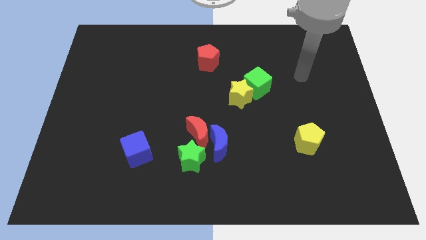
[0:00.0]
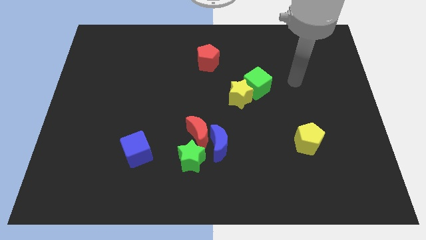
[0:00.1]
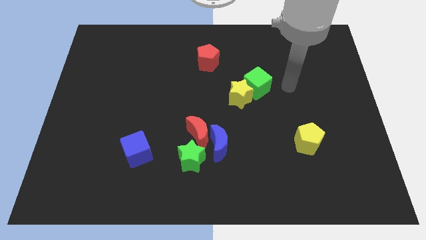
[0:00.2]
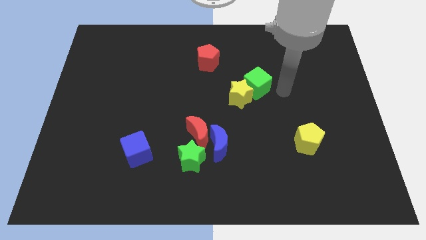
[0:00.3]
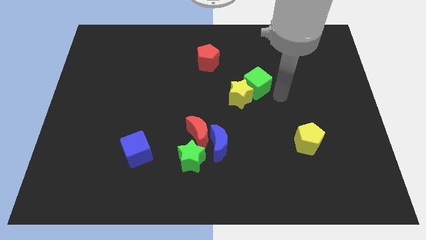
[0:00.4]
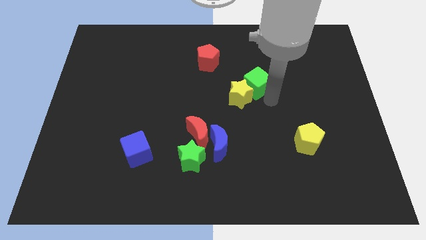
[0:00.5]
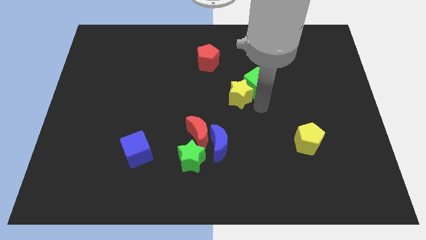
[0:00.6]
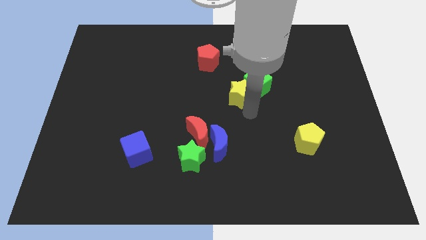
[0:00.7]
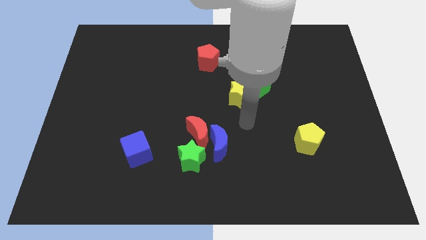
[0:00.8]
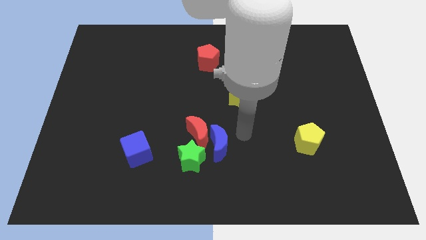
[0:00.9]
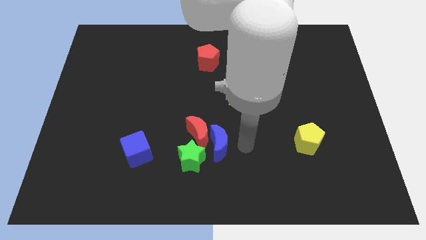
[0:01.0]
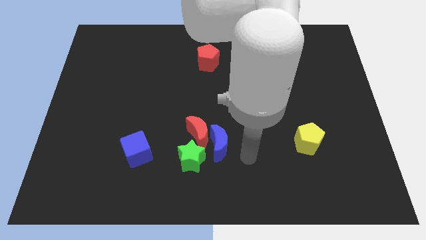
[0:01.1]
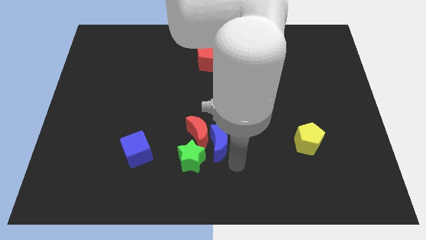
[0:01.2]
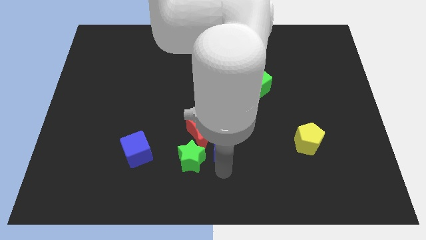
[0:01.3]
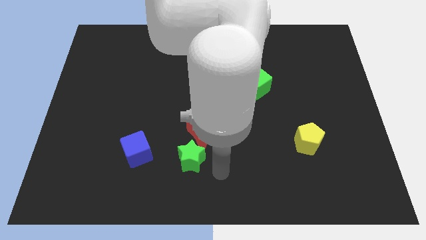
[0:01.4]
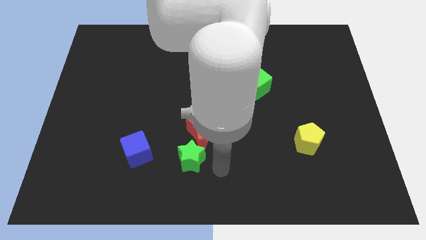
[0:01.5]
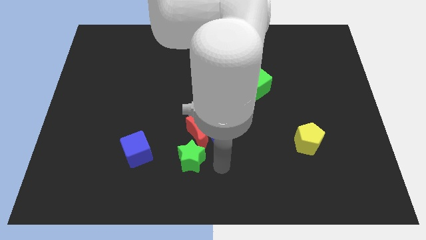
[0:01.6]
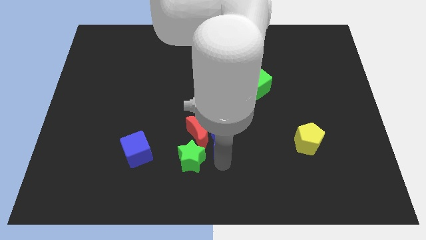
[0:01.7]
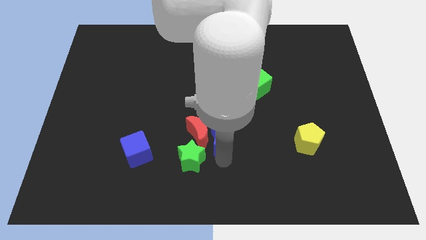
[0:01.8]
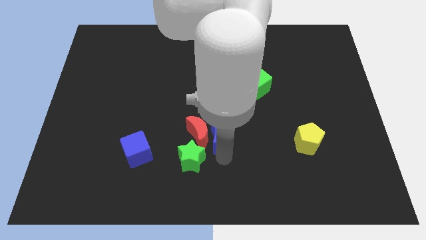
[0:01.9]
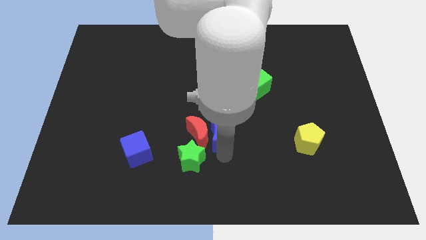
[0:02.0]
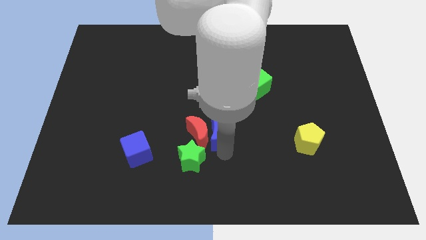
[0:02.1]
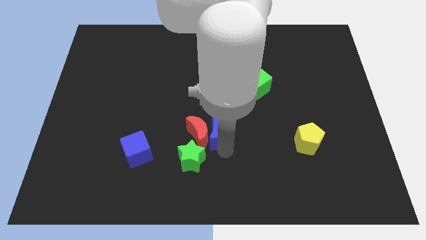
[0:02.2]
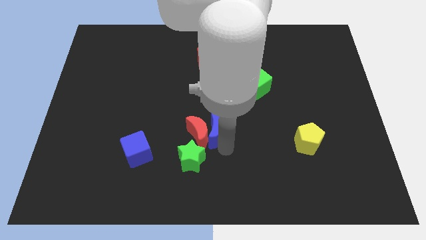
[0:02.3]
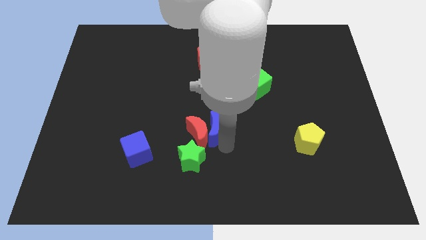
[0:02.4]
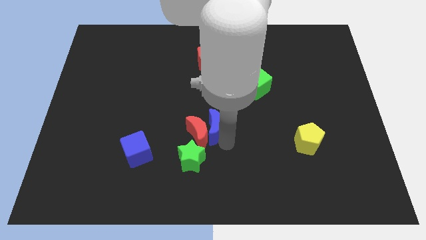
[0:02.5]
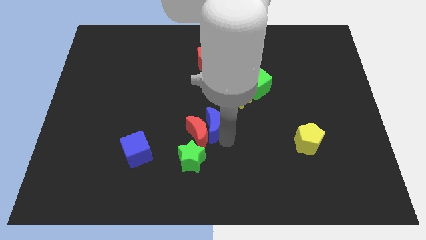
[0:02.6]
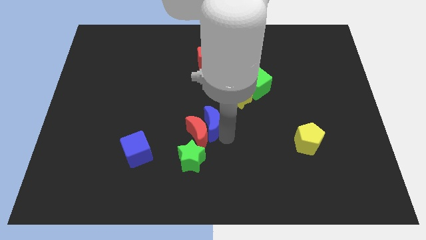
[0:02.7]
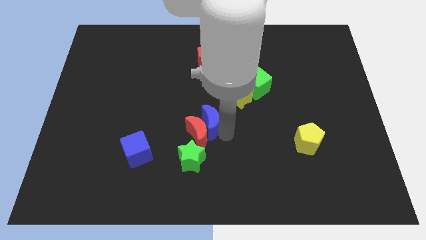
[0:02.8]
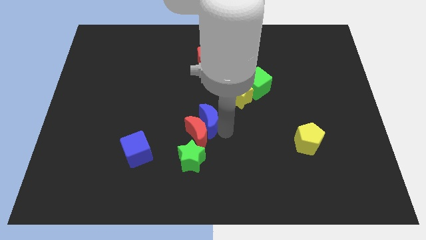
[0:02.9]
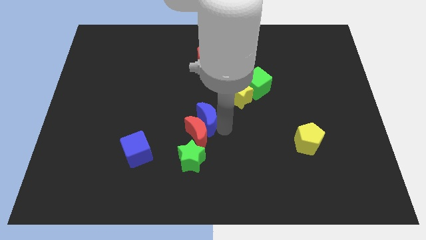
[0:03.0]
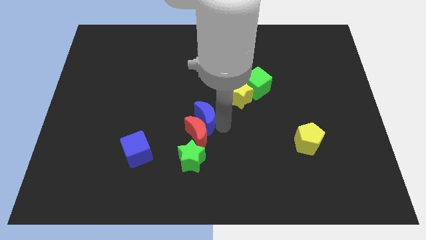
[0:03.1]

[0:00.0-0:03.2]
slightly slide the blue moon up

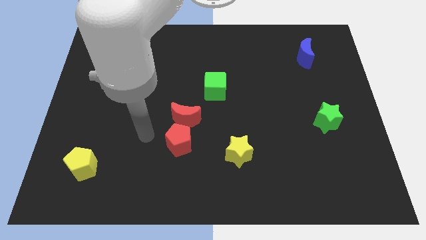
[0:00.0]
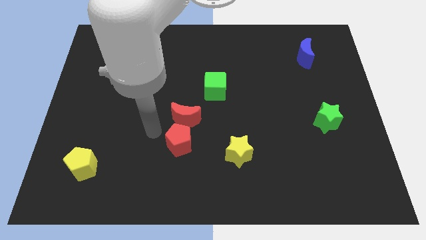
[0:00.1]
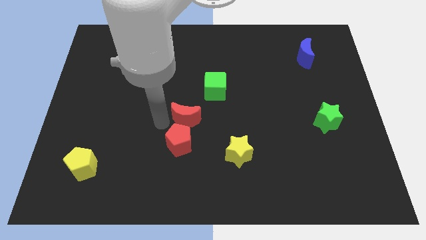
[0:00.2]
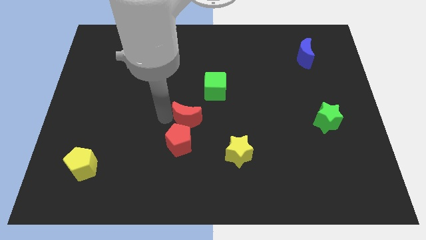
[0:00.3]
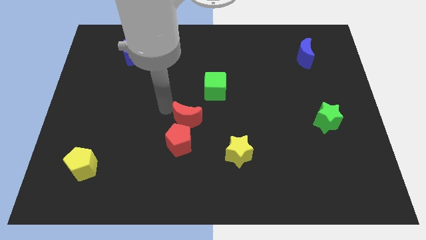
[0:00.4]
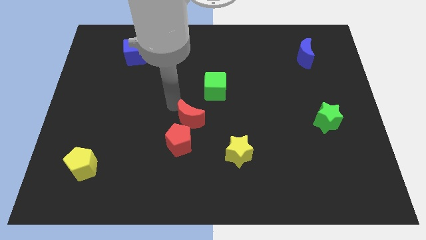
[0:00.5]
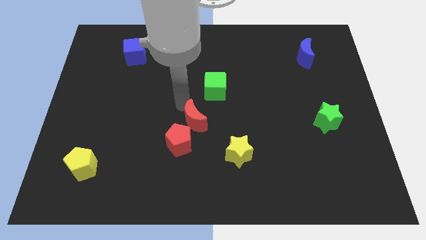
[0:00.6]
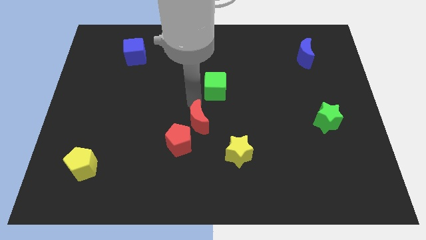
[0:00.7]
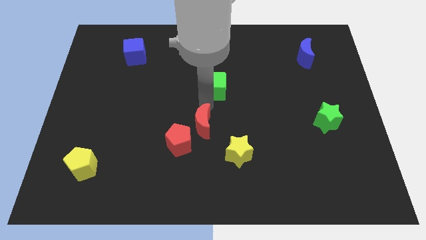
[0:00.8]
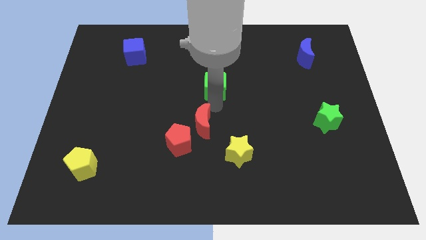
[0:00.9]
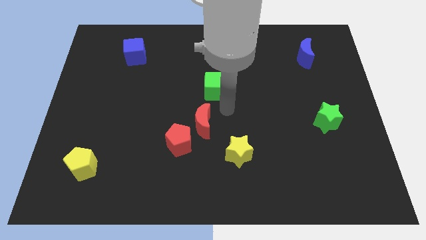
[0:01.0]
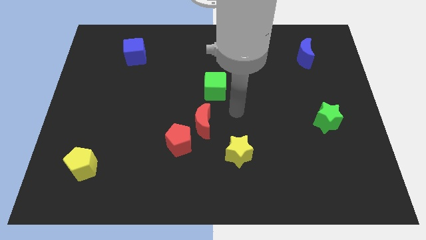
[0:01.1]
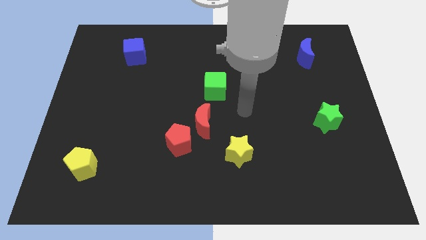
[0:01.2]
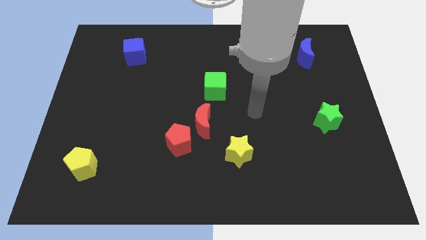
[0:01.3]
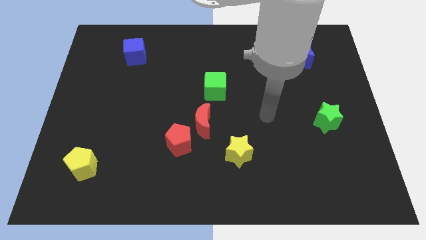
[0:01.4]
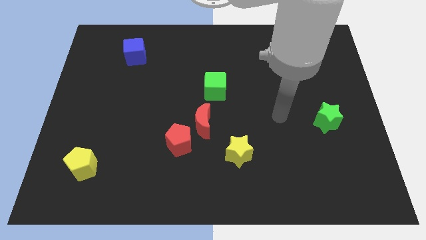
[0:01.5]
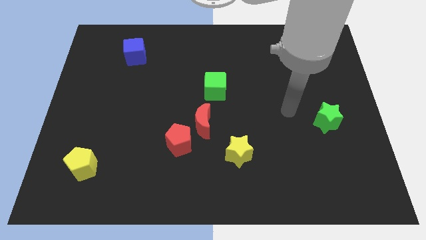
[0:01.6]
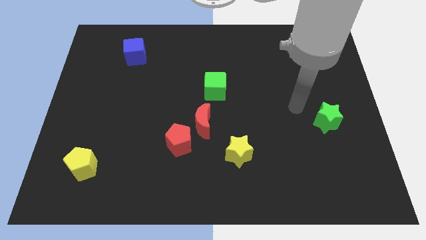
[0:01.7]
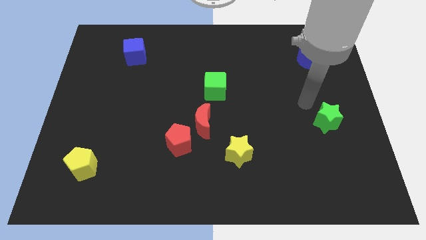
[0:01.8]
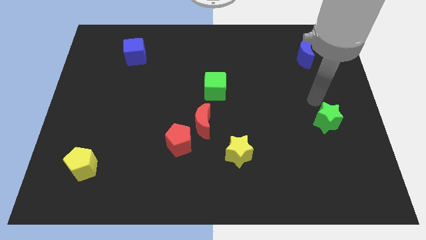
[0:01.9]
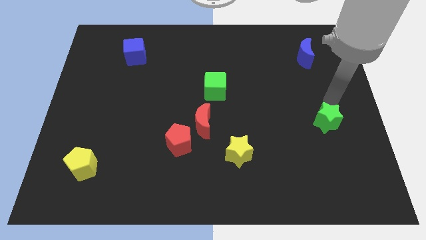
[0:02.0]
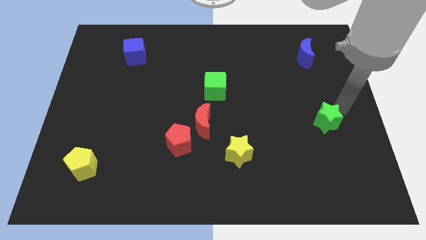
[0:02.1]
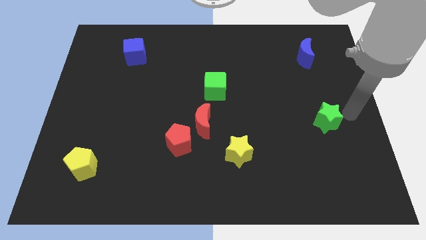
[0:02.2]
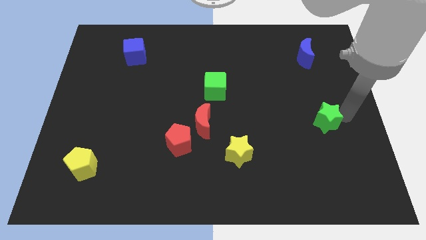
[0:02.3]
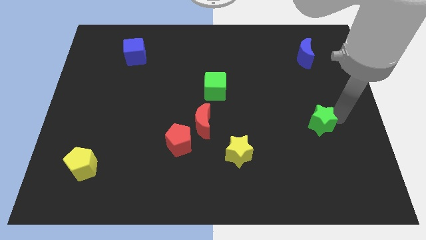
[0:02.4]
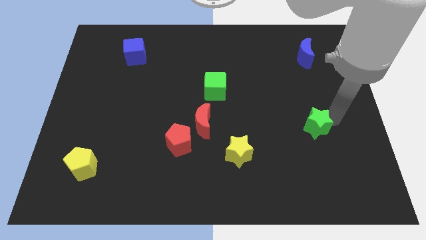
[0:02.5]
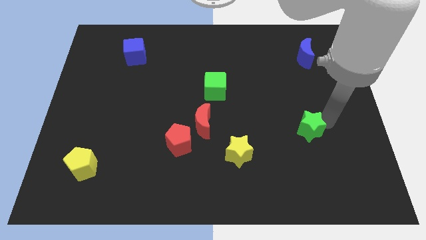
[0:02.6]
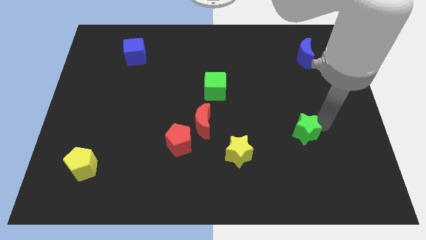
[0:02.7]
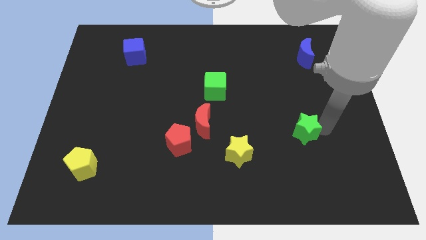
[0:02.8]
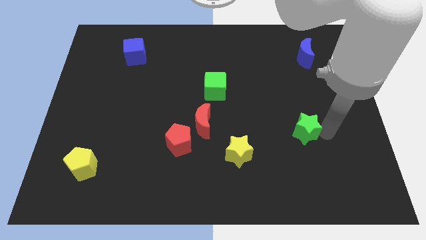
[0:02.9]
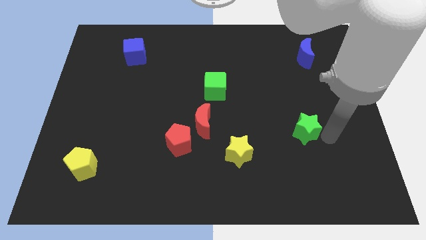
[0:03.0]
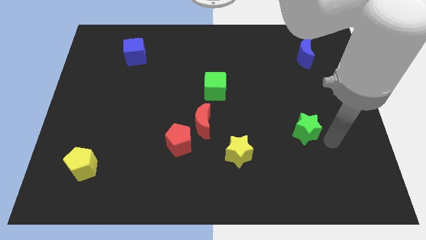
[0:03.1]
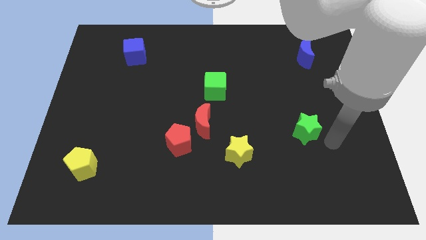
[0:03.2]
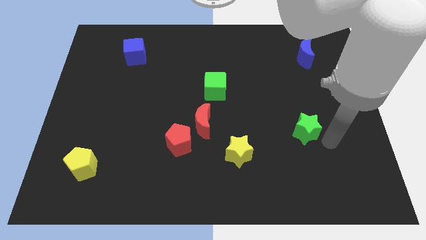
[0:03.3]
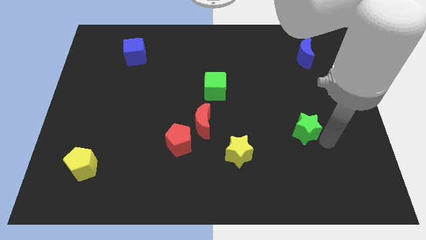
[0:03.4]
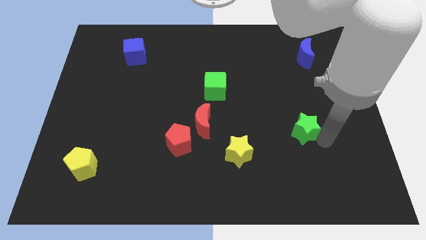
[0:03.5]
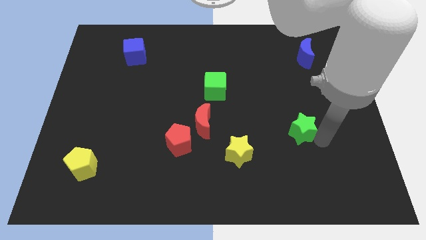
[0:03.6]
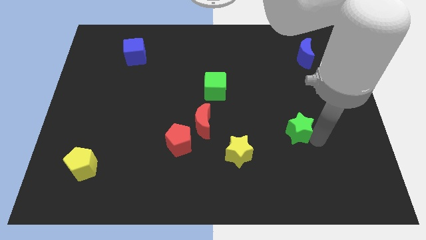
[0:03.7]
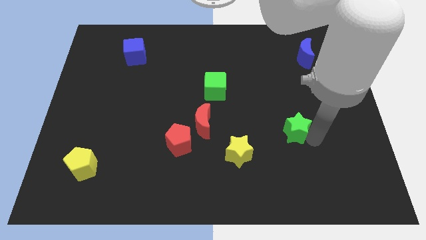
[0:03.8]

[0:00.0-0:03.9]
slightly push the green star to the left

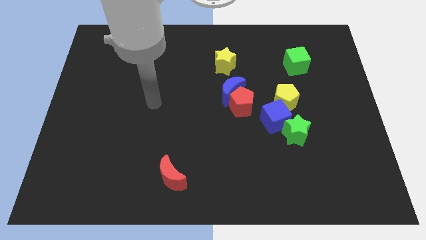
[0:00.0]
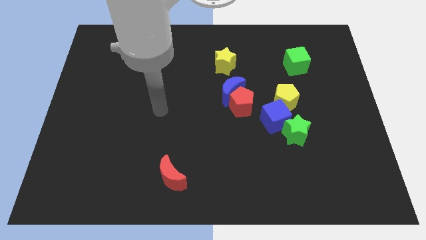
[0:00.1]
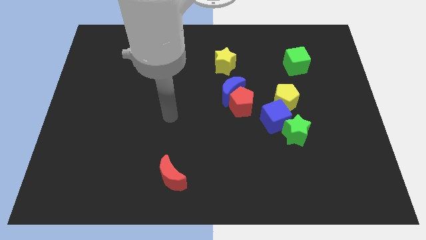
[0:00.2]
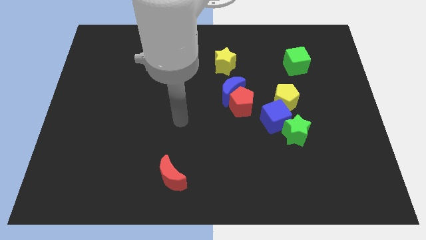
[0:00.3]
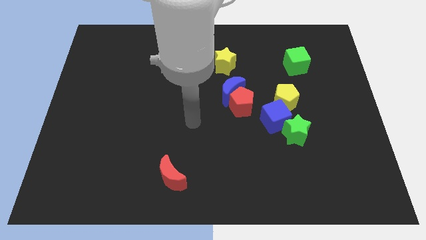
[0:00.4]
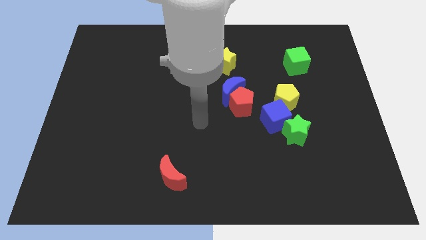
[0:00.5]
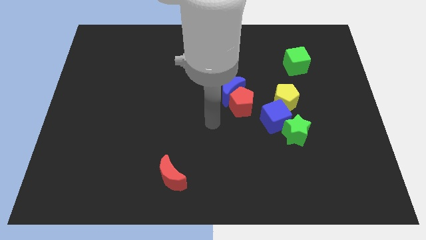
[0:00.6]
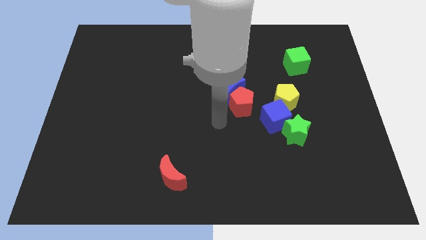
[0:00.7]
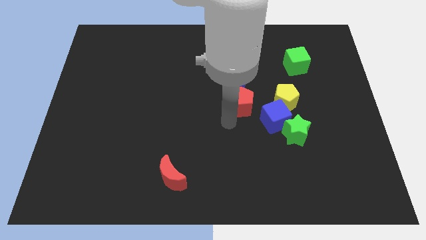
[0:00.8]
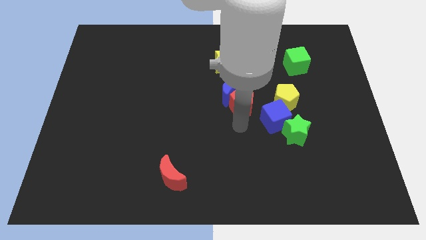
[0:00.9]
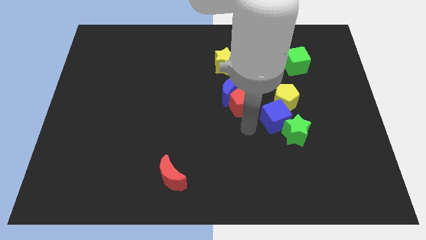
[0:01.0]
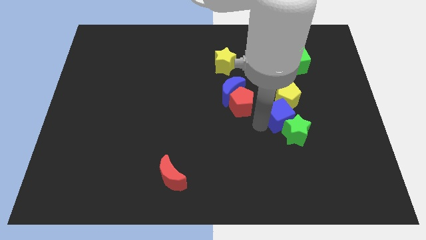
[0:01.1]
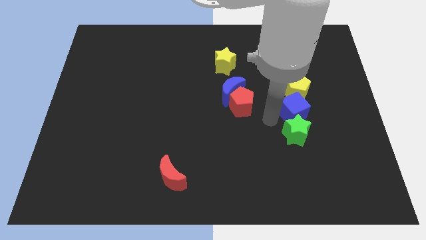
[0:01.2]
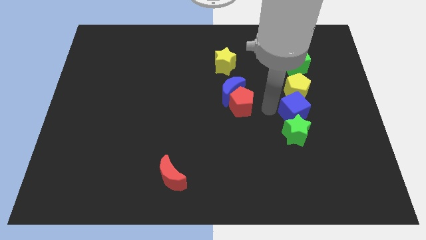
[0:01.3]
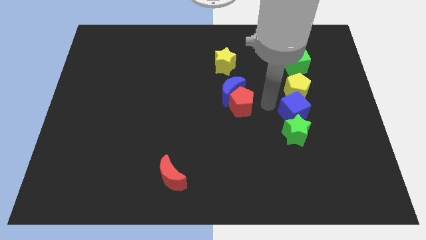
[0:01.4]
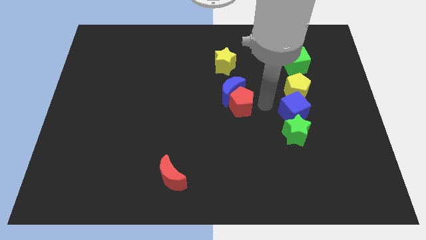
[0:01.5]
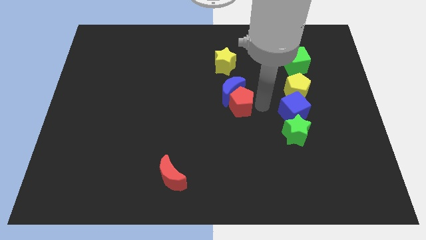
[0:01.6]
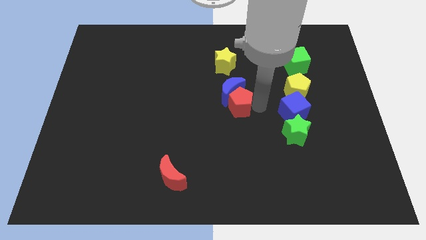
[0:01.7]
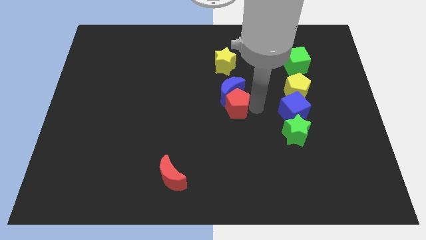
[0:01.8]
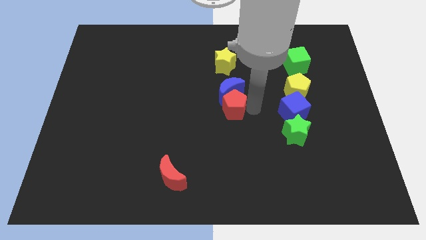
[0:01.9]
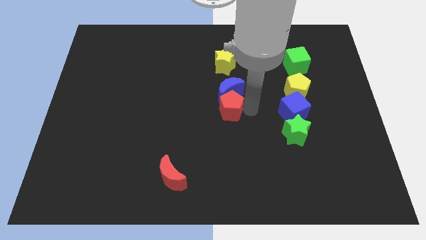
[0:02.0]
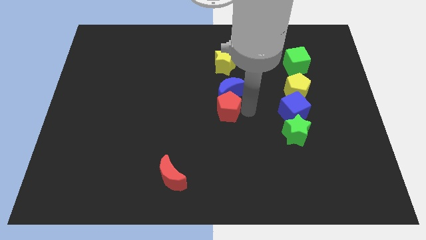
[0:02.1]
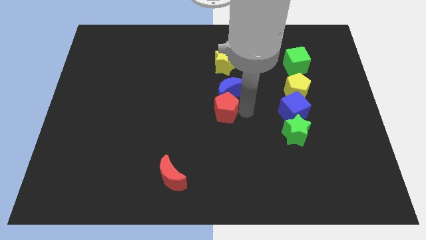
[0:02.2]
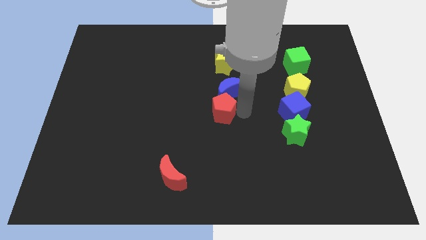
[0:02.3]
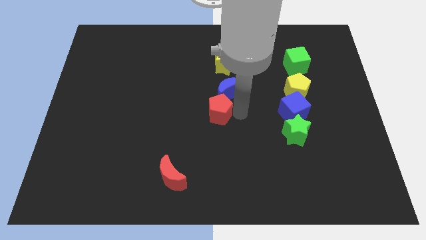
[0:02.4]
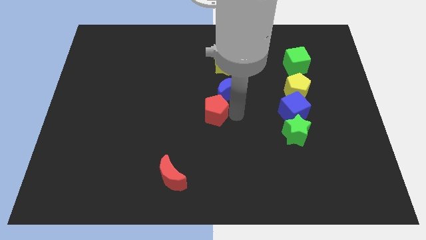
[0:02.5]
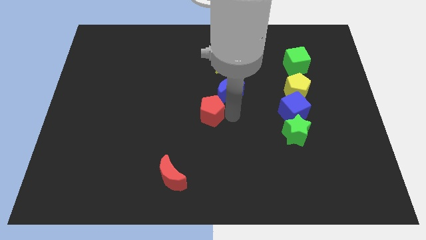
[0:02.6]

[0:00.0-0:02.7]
slide the red pentagon to the left a bit
